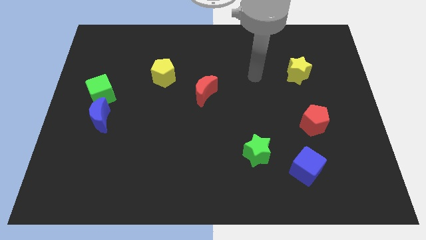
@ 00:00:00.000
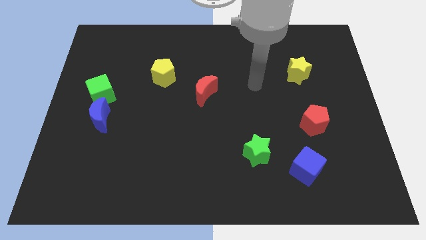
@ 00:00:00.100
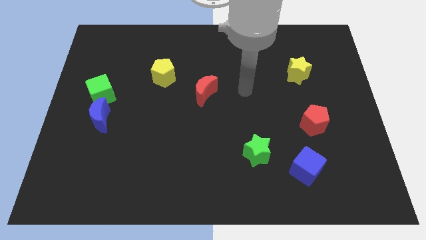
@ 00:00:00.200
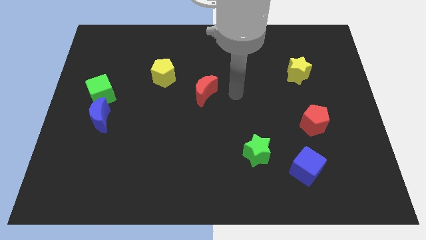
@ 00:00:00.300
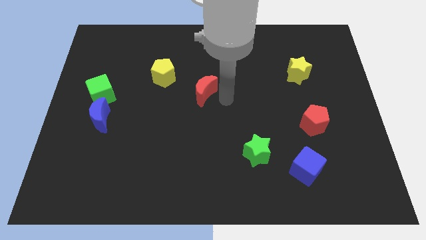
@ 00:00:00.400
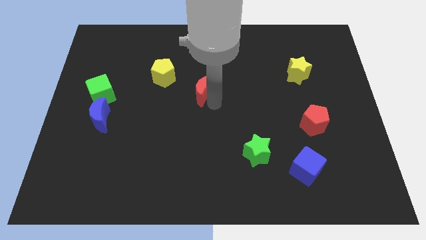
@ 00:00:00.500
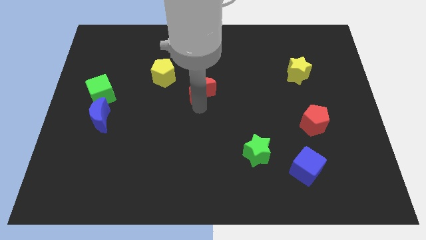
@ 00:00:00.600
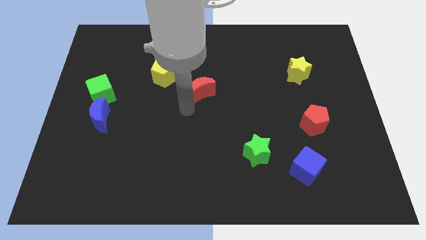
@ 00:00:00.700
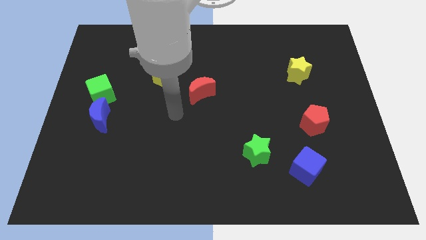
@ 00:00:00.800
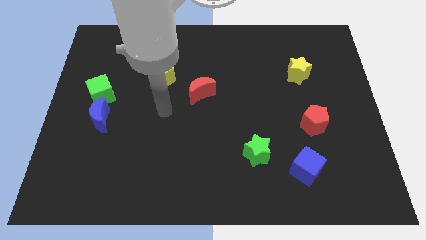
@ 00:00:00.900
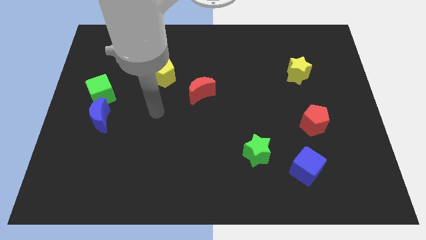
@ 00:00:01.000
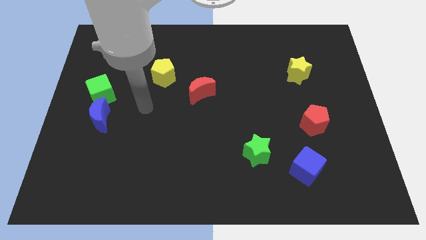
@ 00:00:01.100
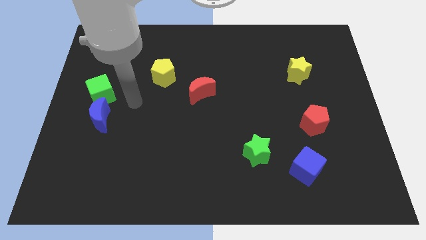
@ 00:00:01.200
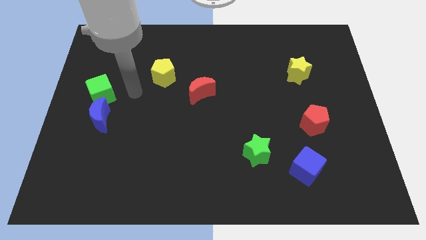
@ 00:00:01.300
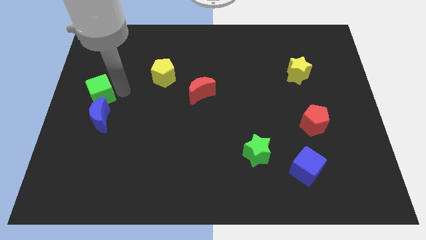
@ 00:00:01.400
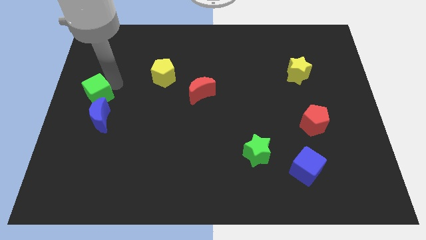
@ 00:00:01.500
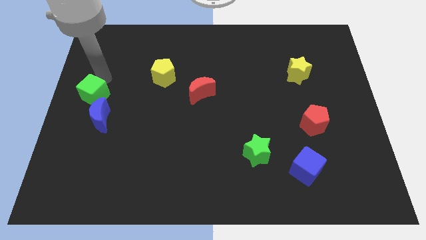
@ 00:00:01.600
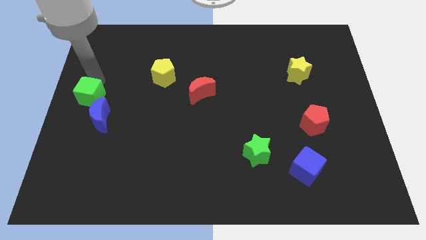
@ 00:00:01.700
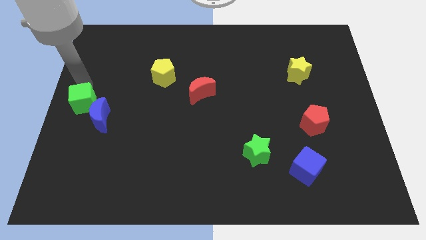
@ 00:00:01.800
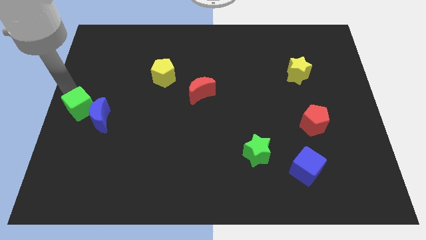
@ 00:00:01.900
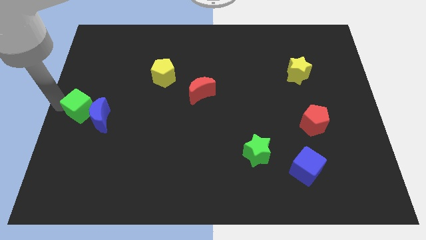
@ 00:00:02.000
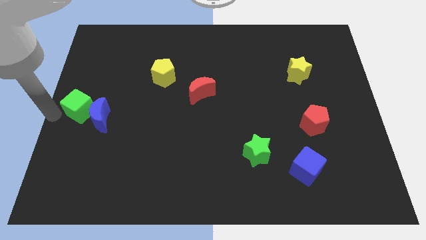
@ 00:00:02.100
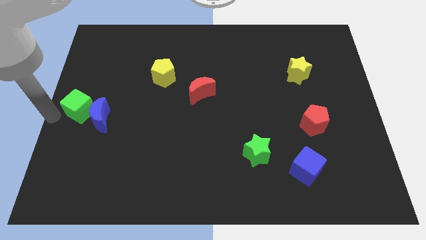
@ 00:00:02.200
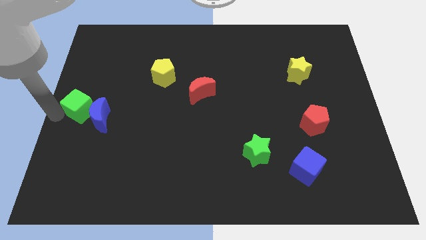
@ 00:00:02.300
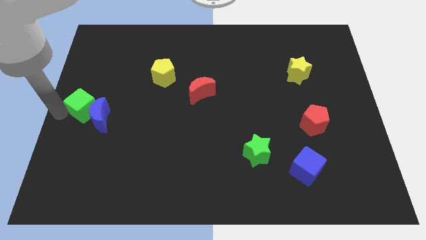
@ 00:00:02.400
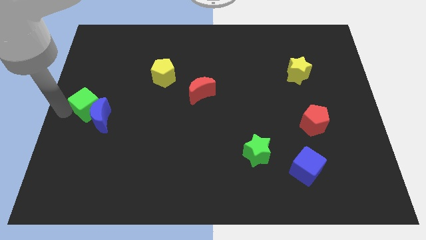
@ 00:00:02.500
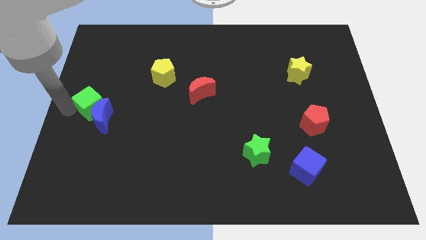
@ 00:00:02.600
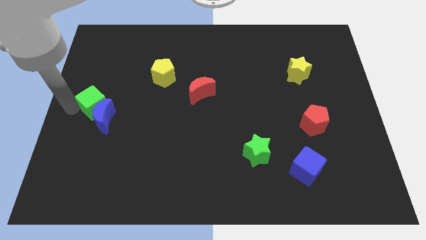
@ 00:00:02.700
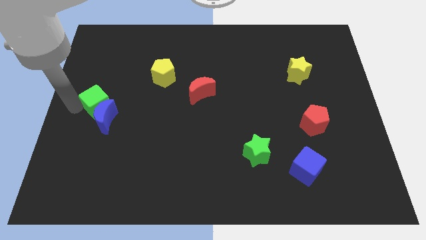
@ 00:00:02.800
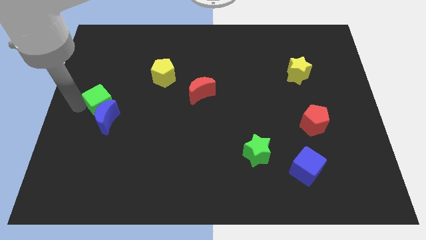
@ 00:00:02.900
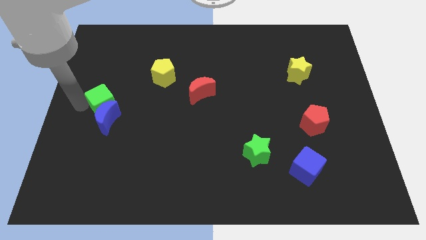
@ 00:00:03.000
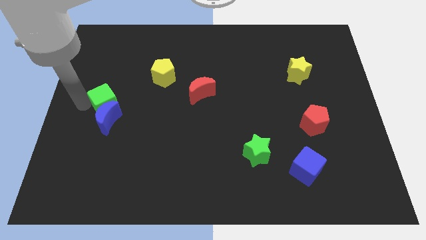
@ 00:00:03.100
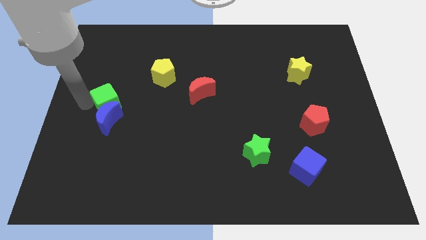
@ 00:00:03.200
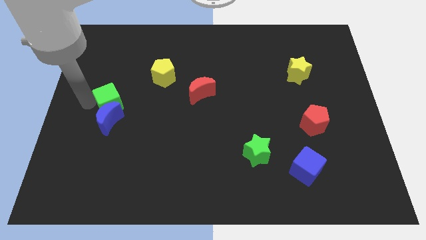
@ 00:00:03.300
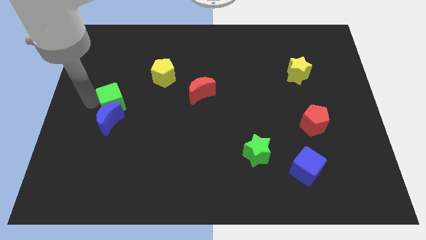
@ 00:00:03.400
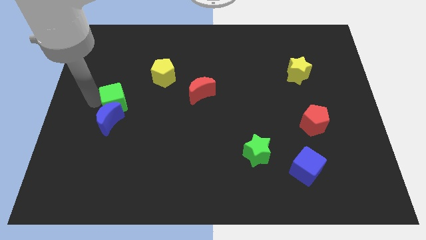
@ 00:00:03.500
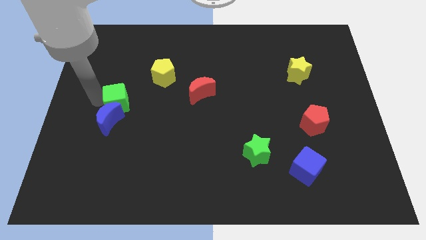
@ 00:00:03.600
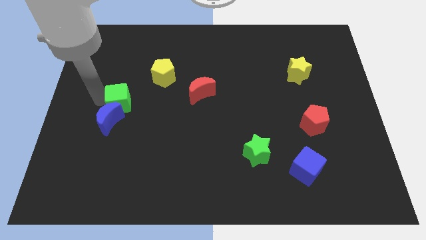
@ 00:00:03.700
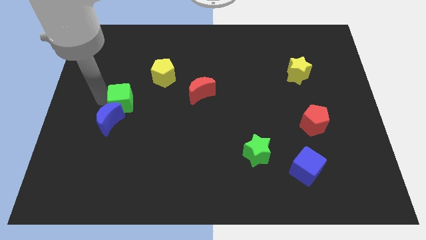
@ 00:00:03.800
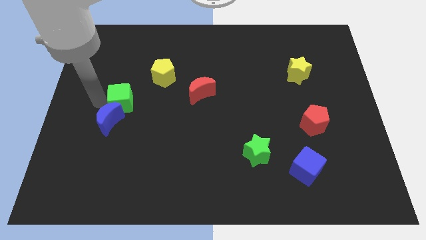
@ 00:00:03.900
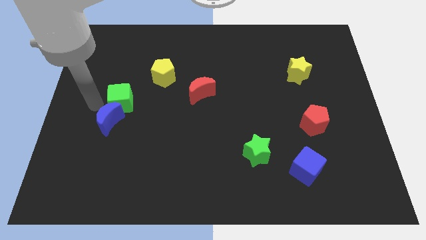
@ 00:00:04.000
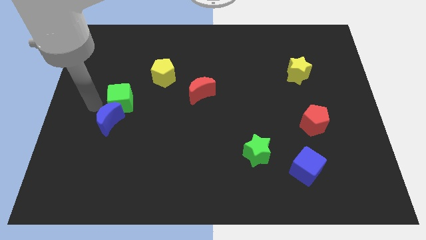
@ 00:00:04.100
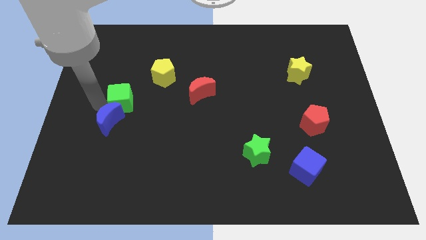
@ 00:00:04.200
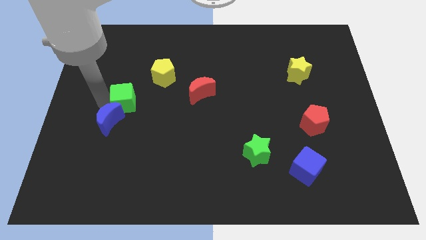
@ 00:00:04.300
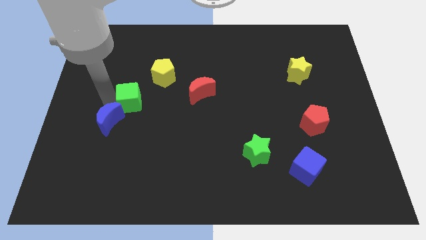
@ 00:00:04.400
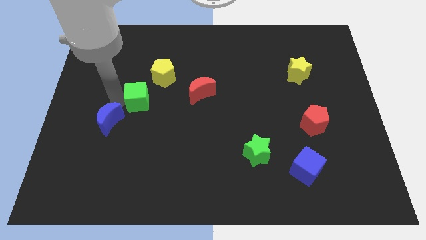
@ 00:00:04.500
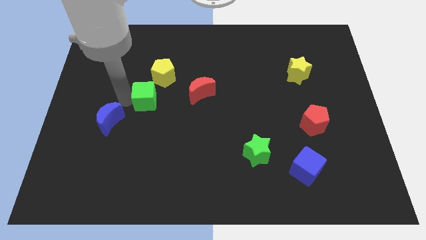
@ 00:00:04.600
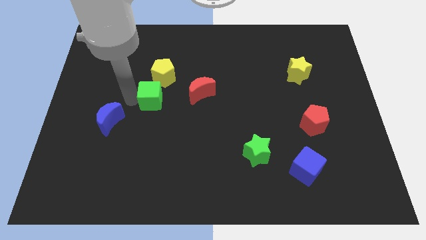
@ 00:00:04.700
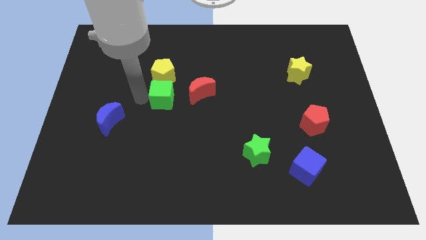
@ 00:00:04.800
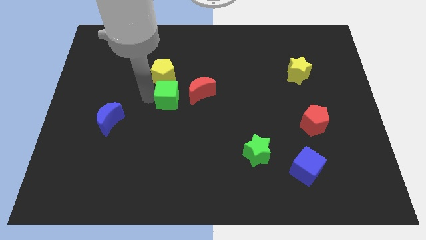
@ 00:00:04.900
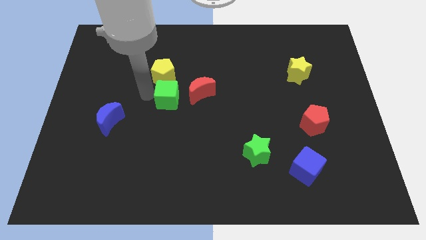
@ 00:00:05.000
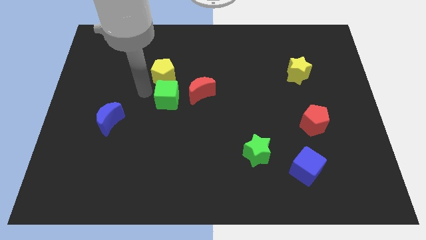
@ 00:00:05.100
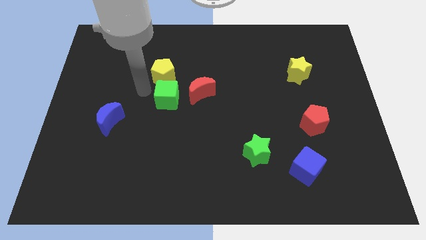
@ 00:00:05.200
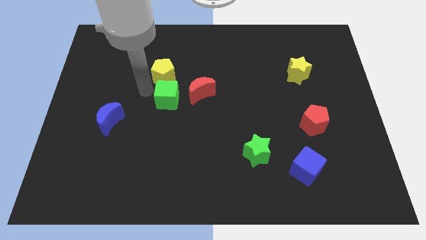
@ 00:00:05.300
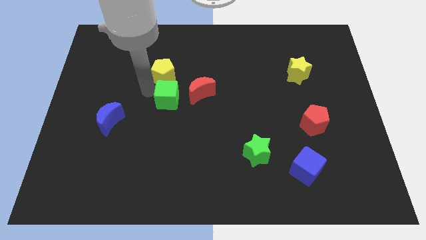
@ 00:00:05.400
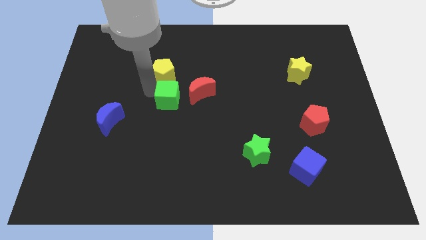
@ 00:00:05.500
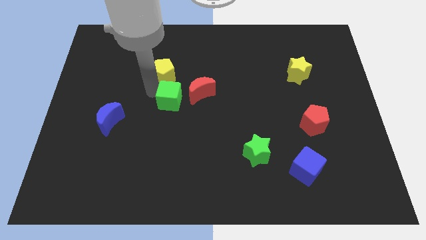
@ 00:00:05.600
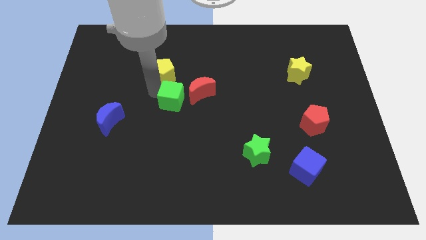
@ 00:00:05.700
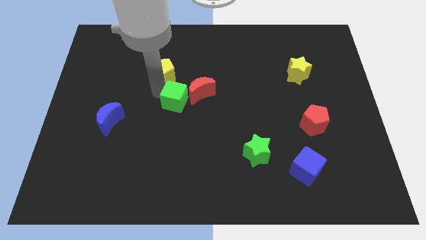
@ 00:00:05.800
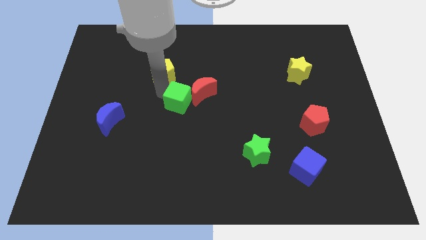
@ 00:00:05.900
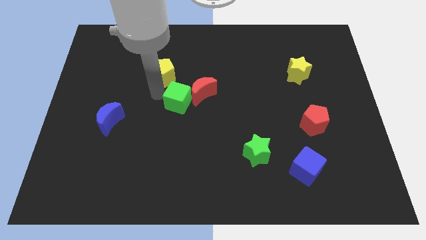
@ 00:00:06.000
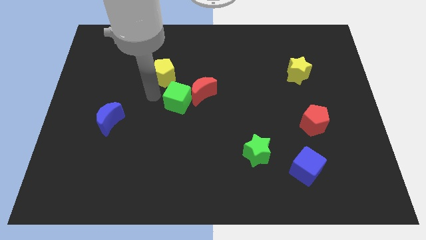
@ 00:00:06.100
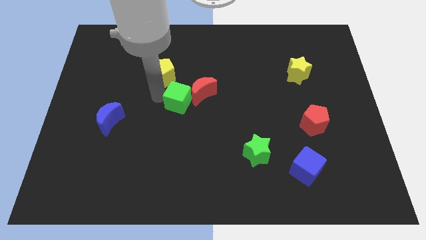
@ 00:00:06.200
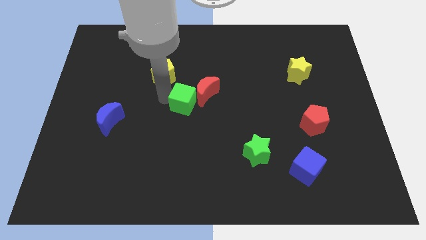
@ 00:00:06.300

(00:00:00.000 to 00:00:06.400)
push the green cube to the right

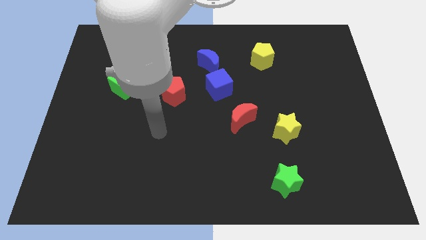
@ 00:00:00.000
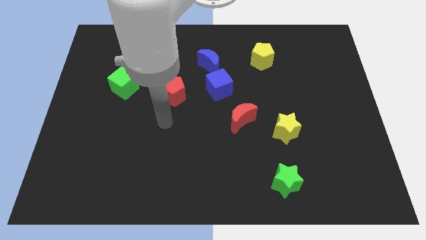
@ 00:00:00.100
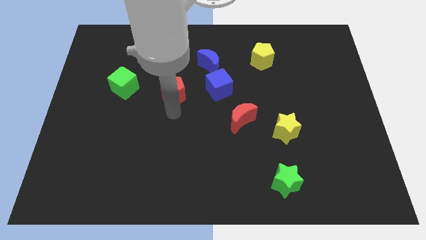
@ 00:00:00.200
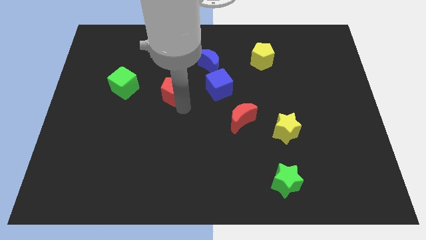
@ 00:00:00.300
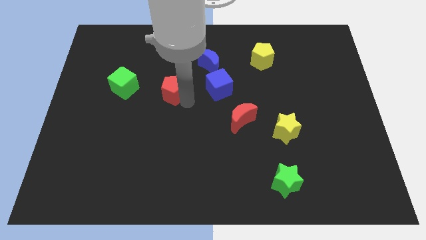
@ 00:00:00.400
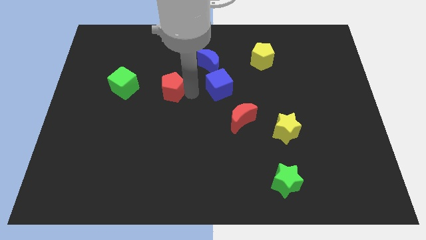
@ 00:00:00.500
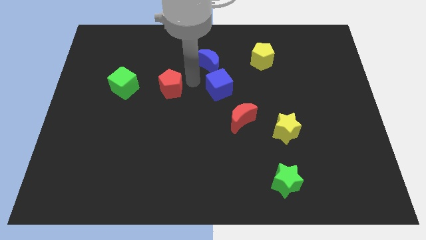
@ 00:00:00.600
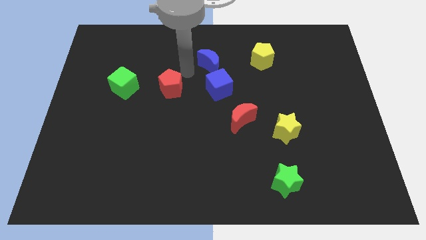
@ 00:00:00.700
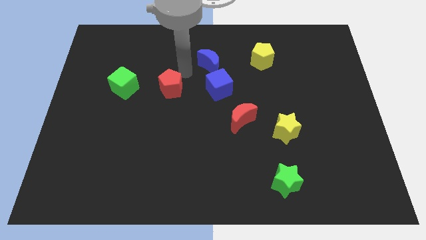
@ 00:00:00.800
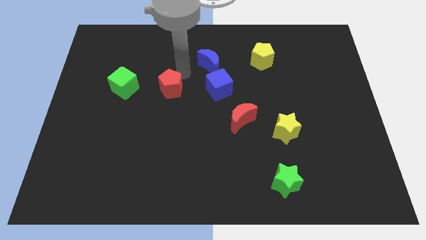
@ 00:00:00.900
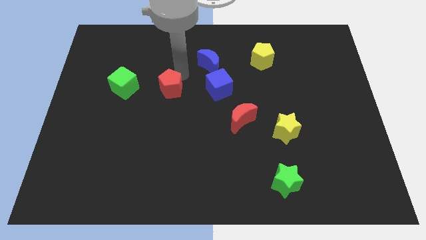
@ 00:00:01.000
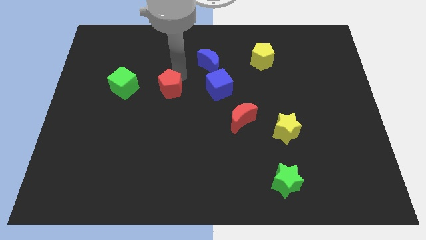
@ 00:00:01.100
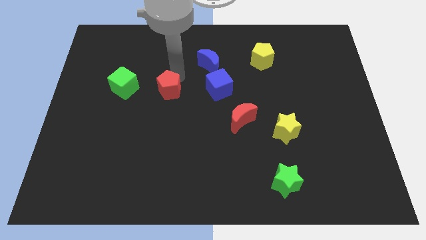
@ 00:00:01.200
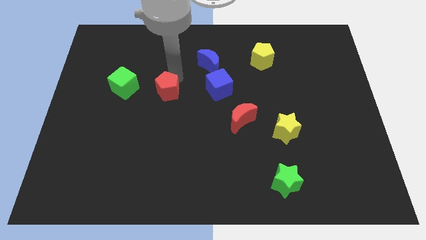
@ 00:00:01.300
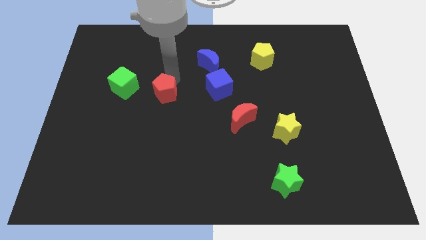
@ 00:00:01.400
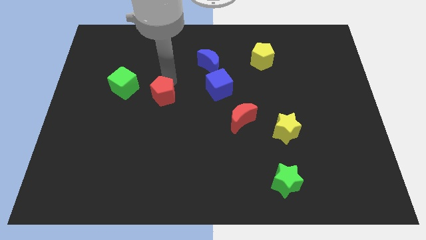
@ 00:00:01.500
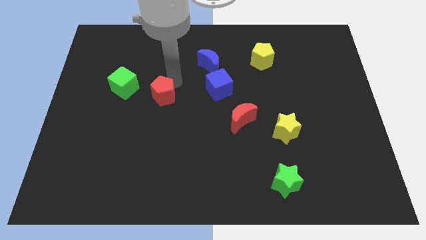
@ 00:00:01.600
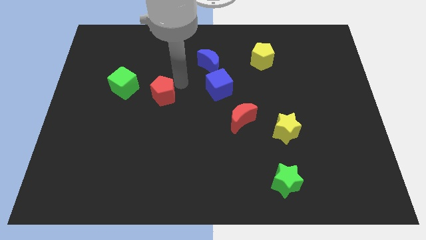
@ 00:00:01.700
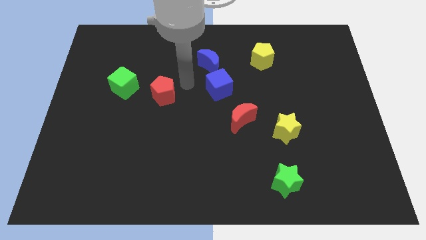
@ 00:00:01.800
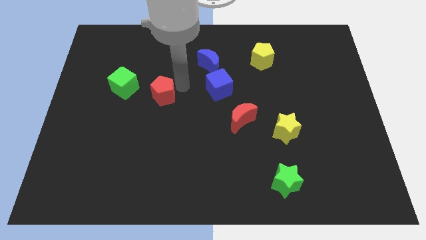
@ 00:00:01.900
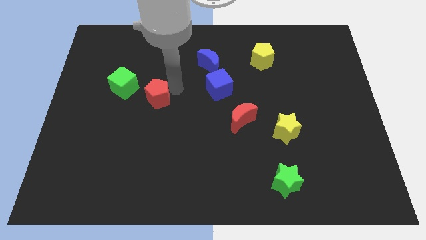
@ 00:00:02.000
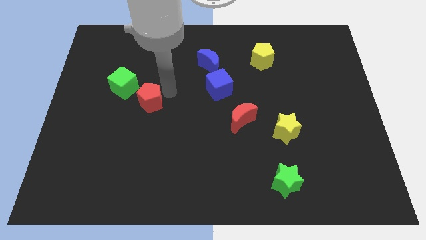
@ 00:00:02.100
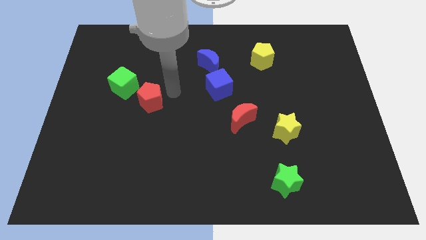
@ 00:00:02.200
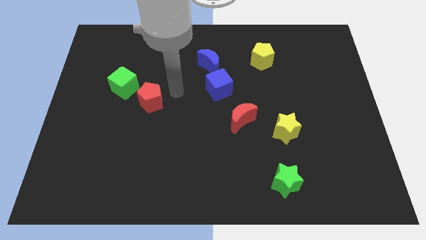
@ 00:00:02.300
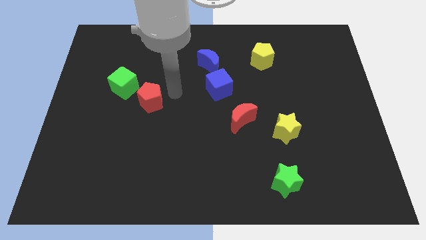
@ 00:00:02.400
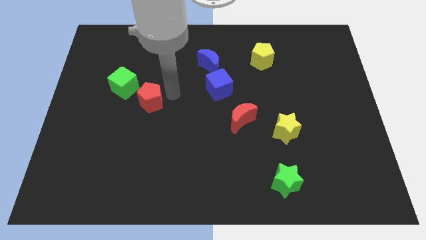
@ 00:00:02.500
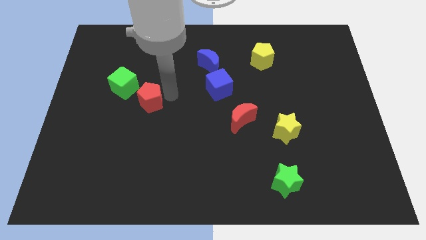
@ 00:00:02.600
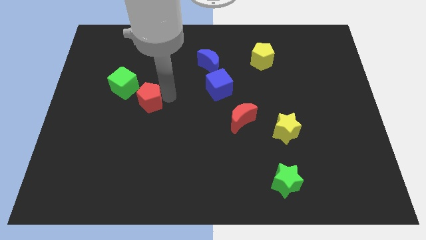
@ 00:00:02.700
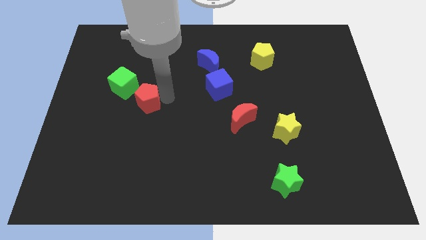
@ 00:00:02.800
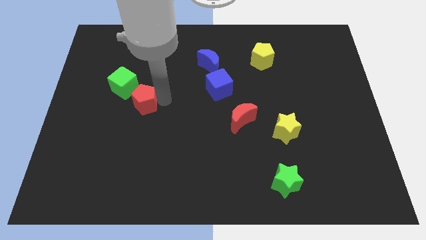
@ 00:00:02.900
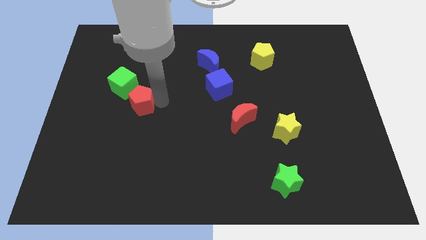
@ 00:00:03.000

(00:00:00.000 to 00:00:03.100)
slightly move the red pentagon to the left
